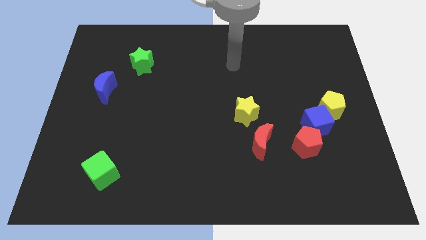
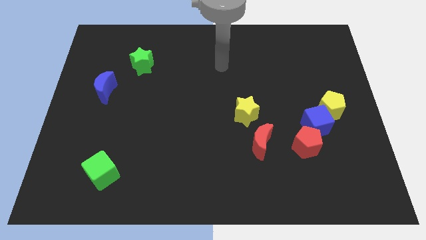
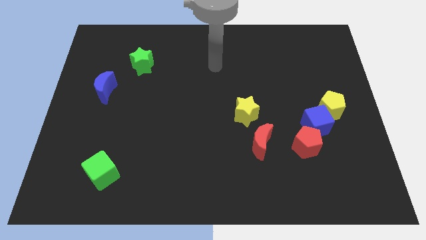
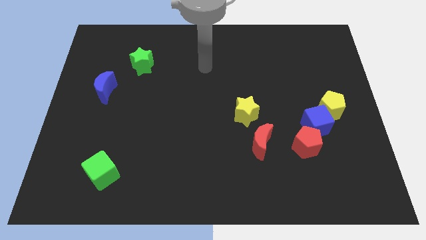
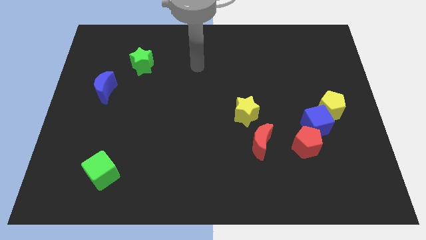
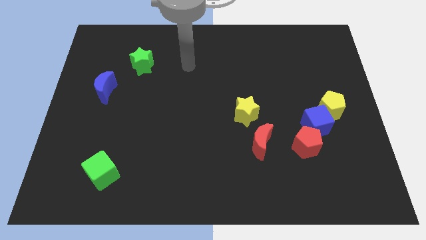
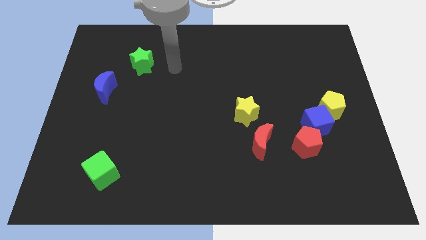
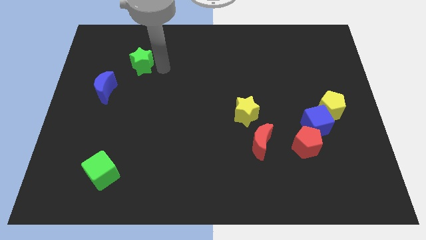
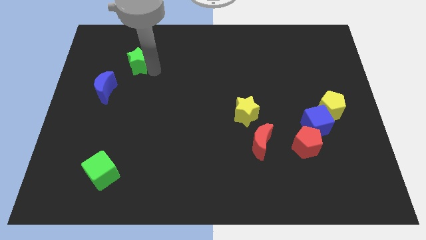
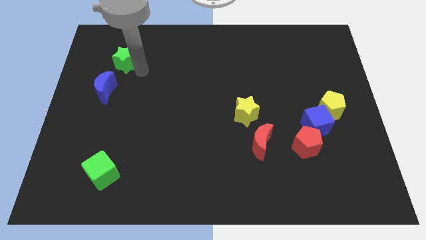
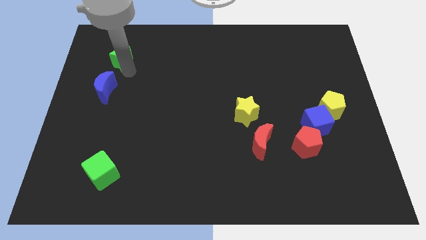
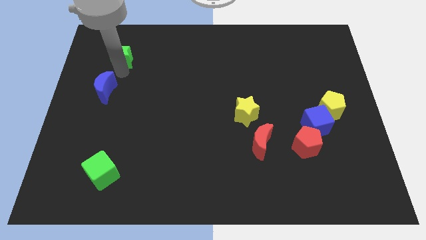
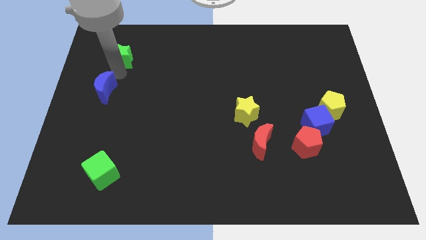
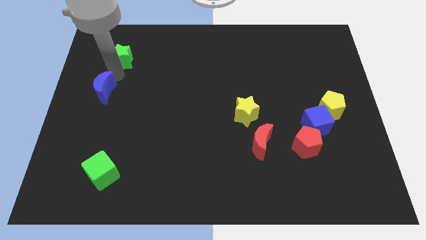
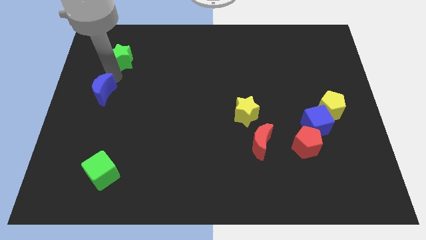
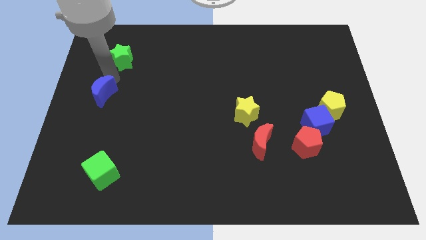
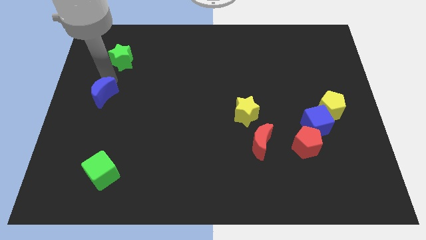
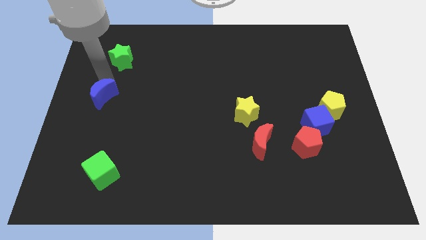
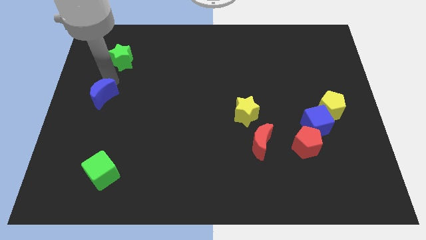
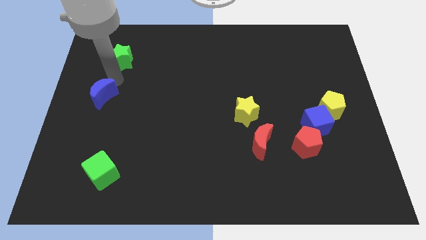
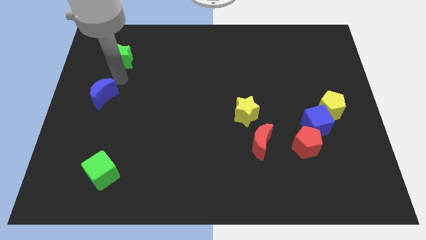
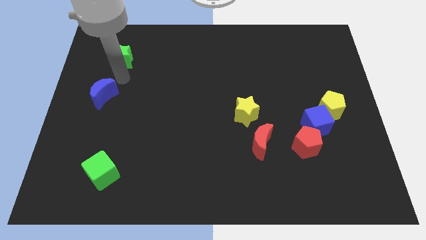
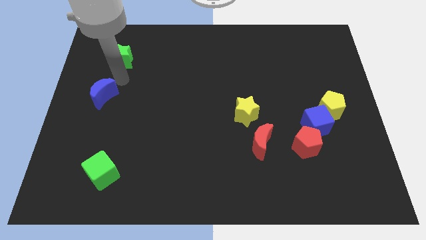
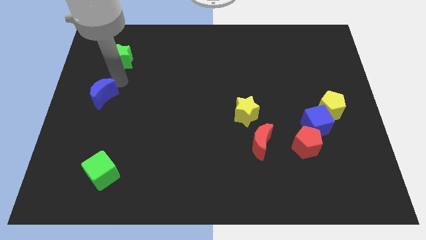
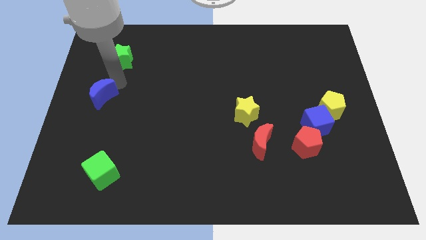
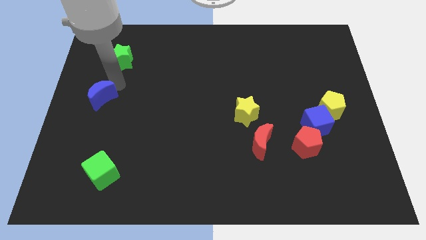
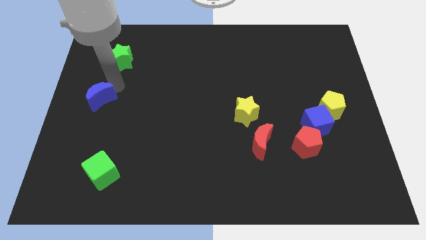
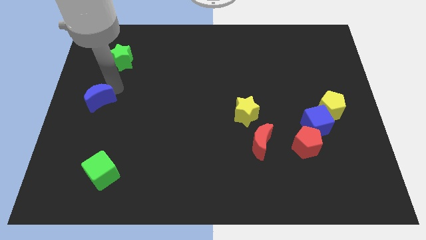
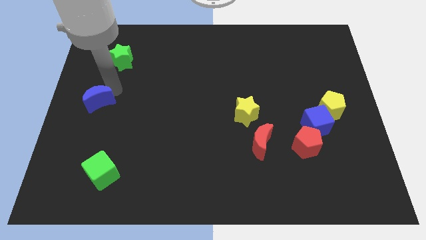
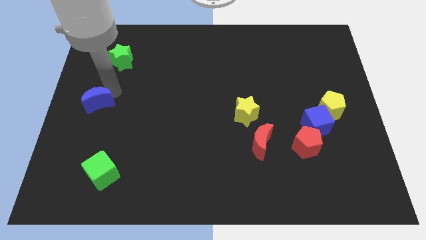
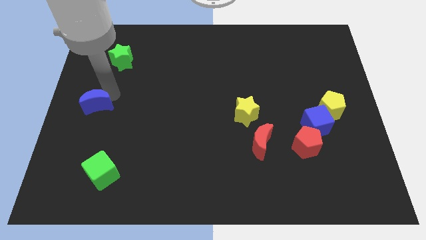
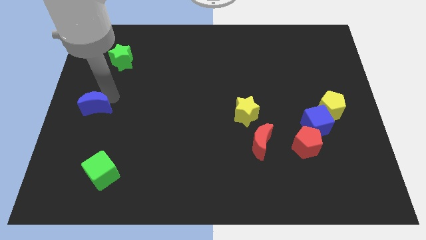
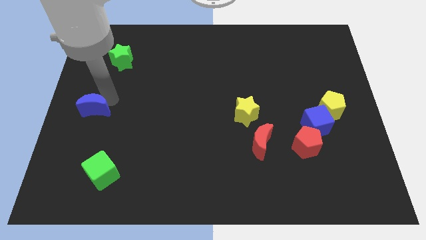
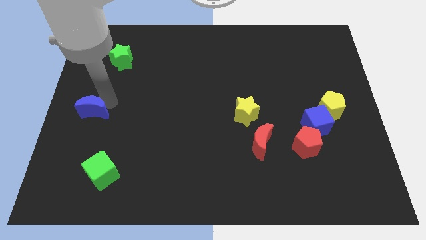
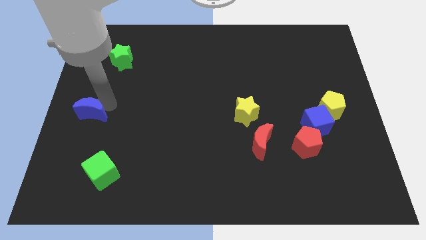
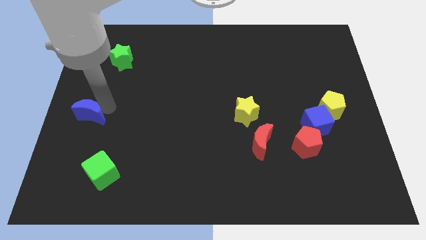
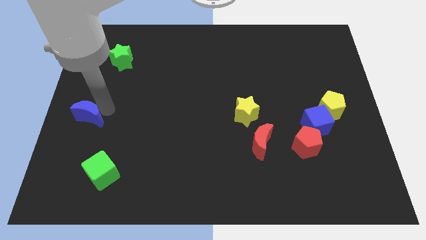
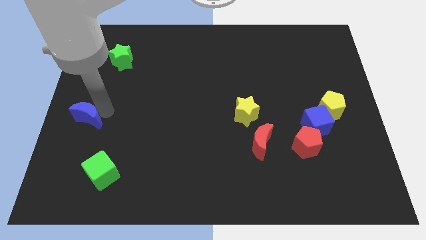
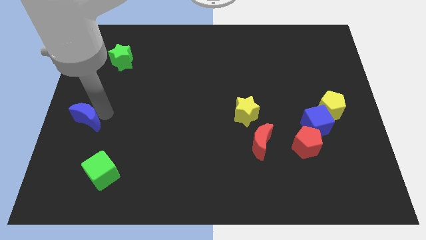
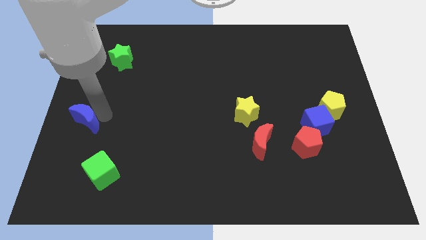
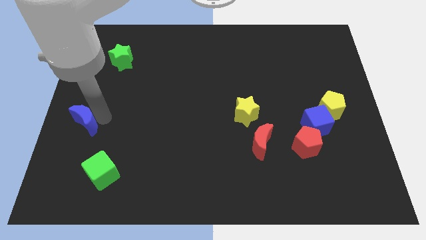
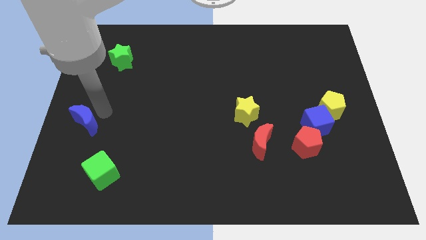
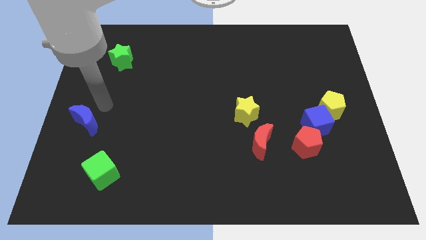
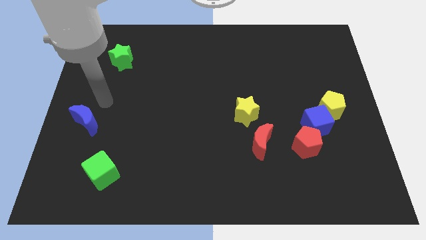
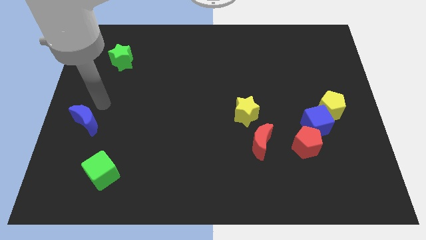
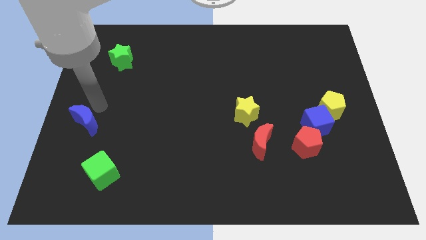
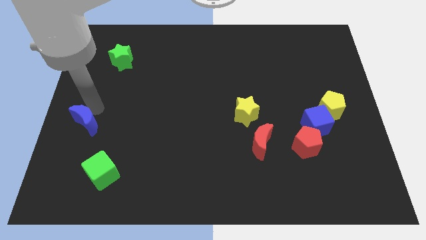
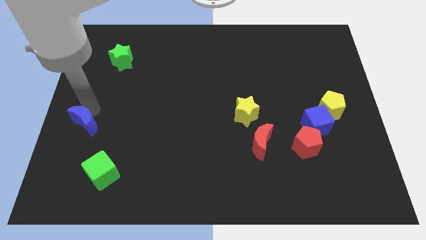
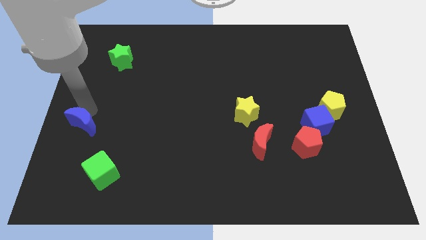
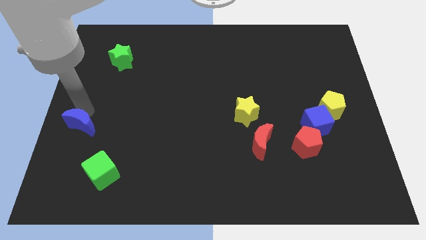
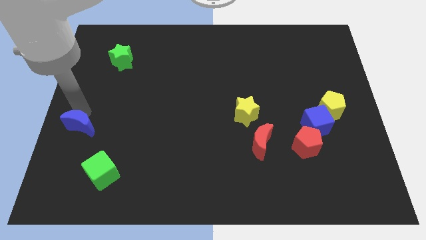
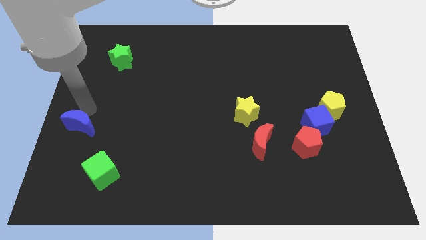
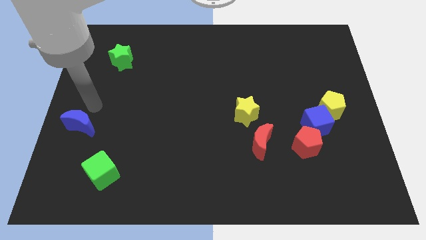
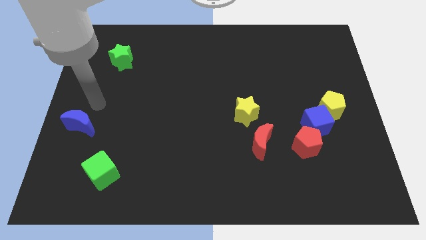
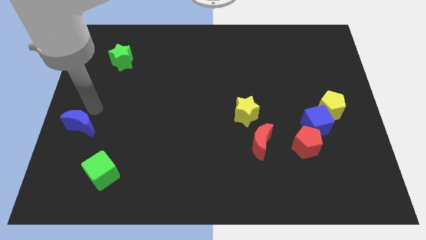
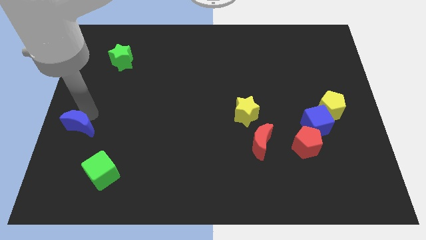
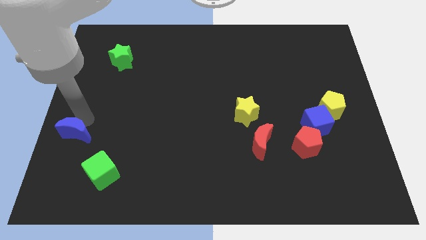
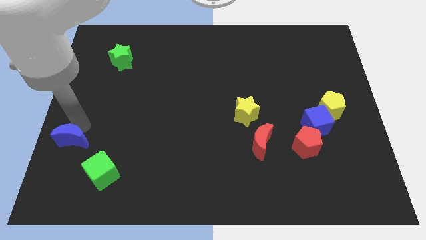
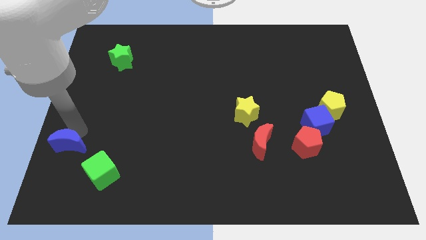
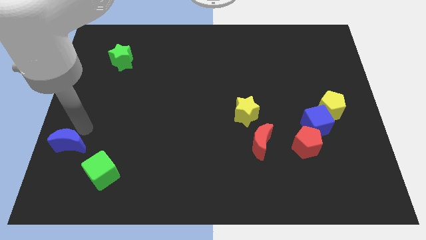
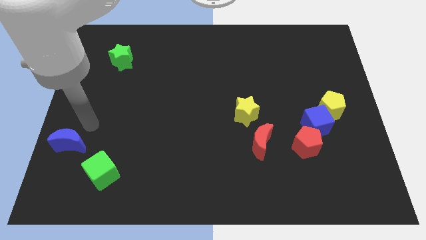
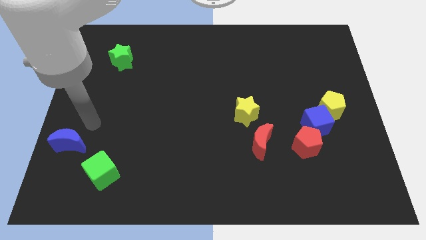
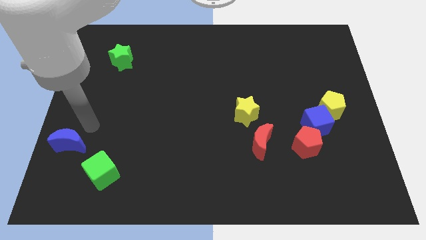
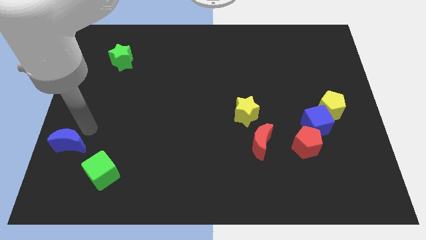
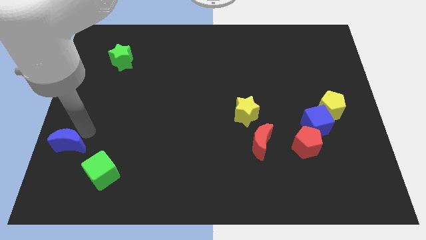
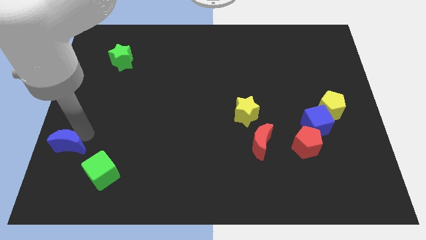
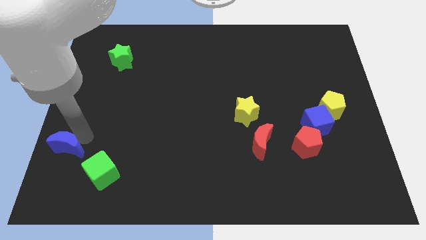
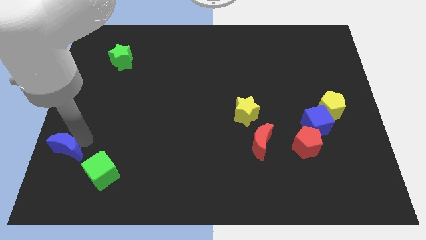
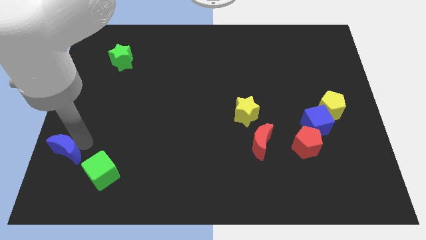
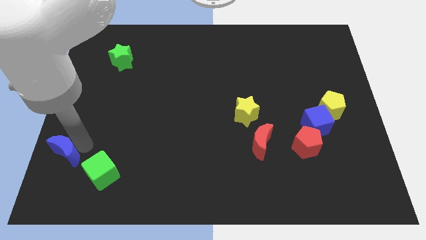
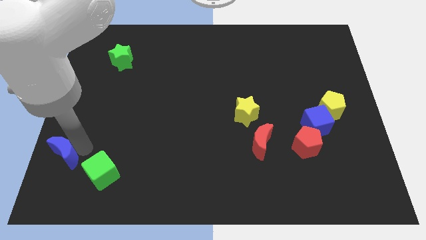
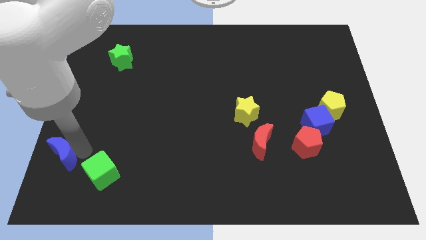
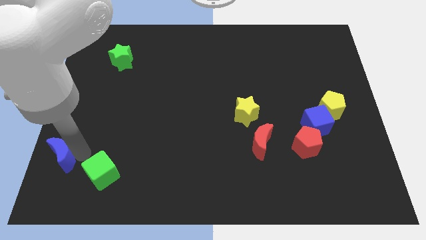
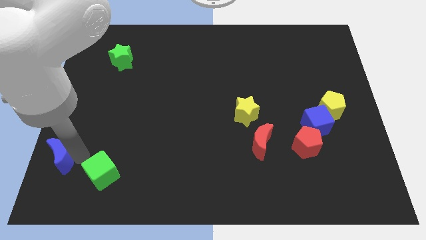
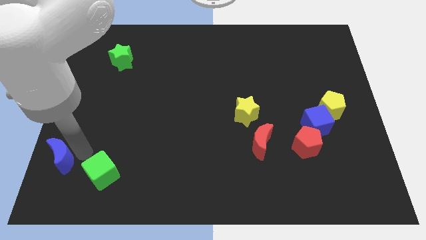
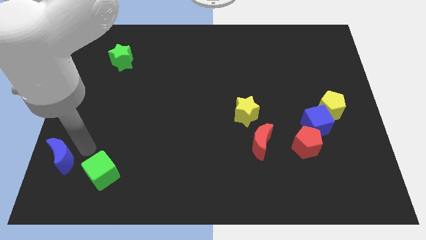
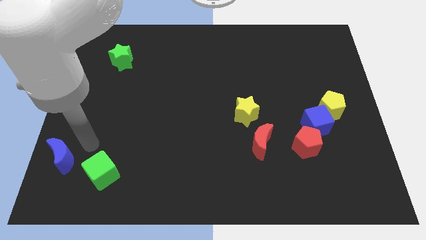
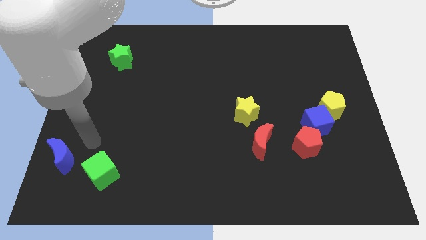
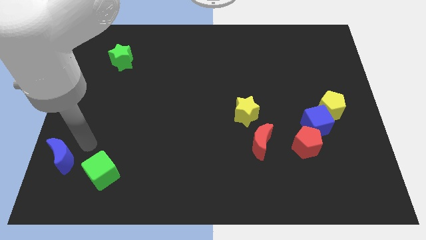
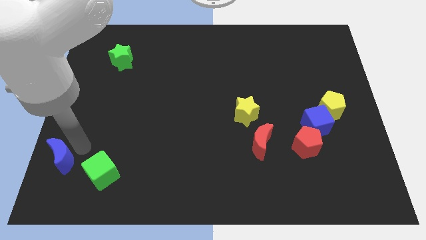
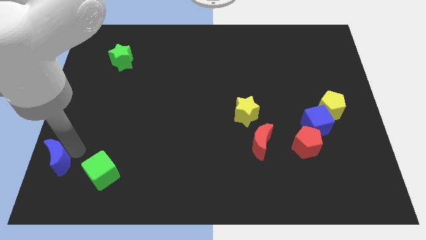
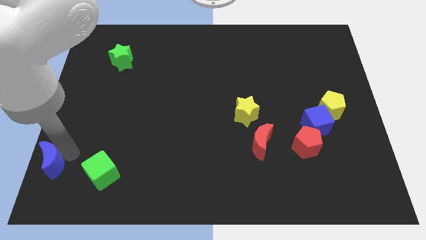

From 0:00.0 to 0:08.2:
push the blue moon to the bottom left
